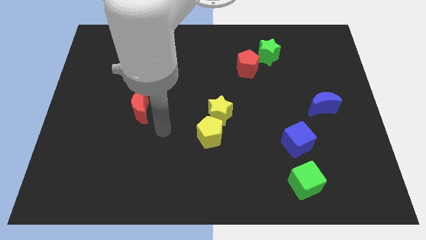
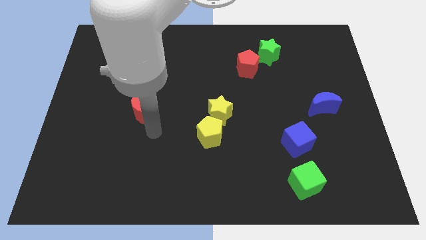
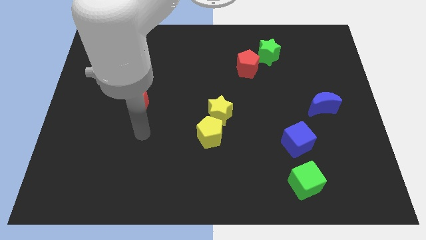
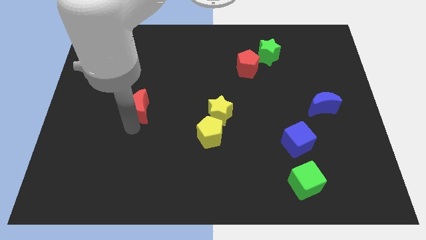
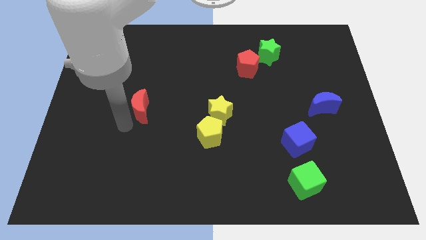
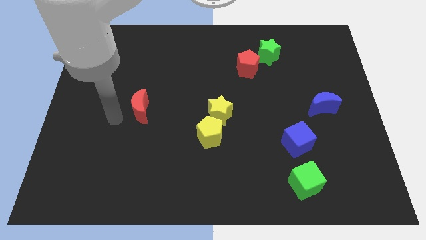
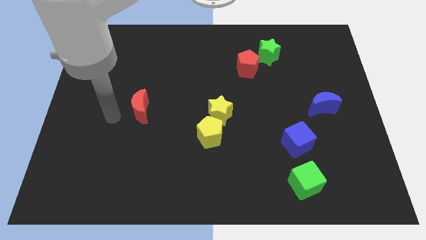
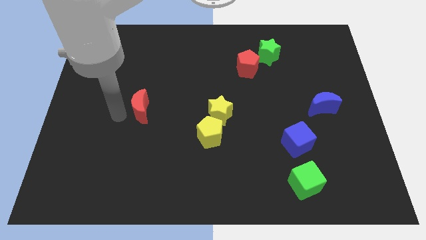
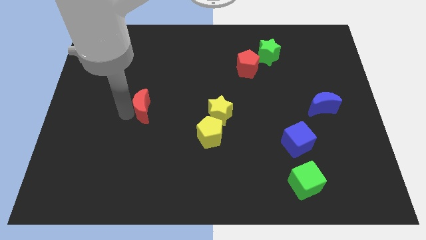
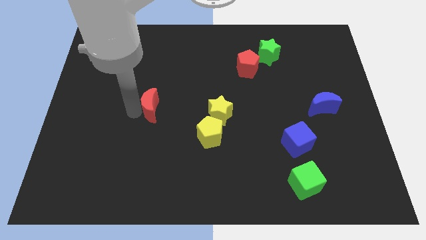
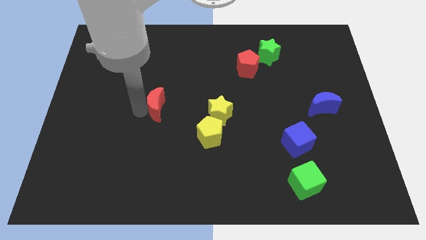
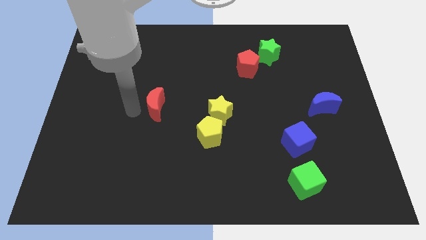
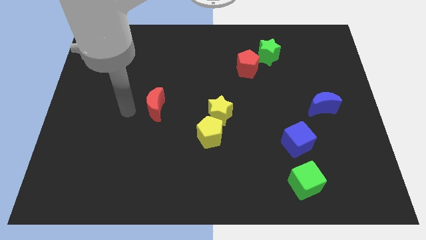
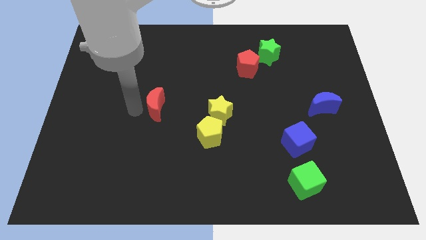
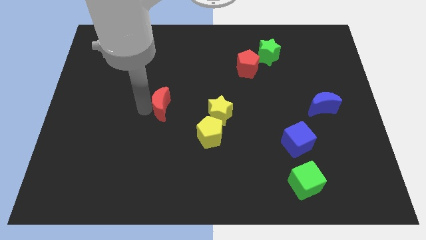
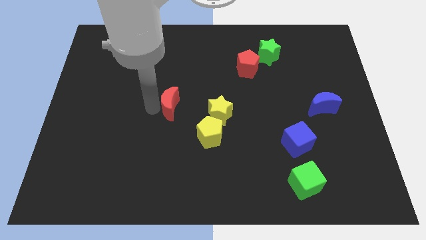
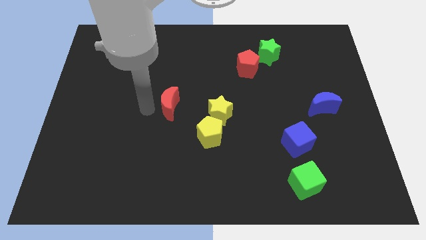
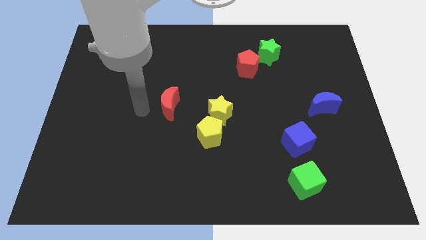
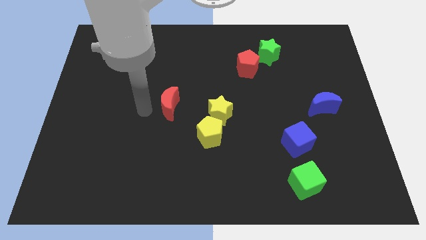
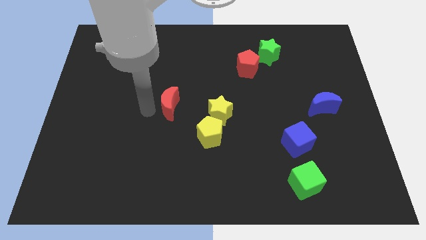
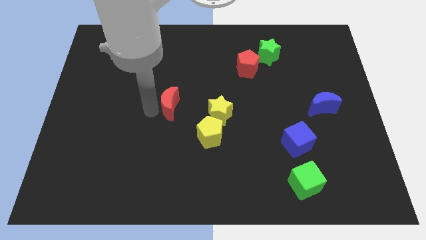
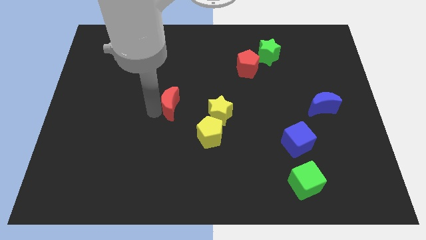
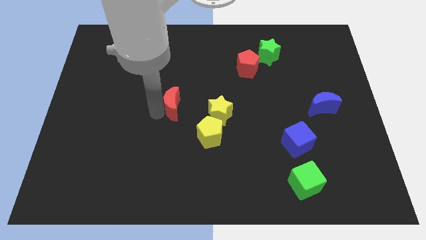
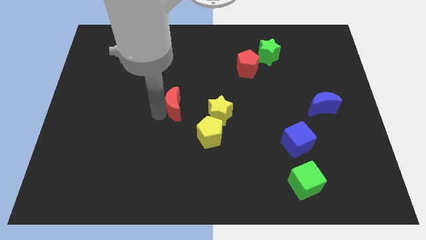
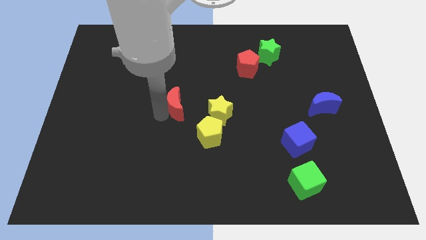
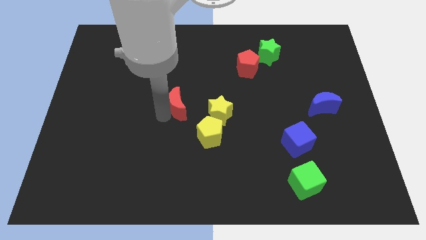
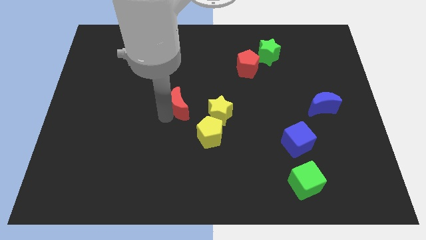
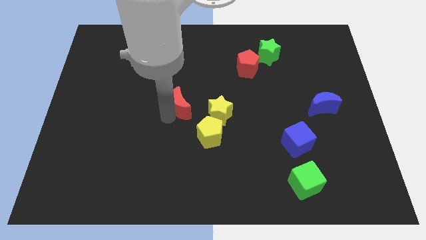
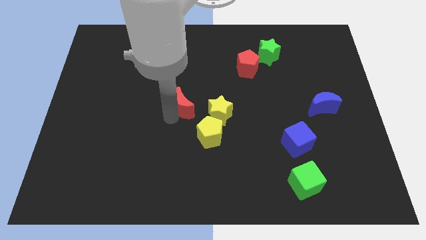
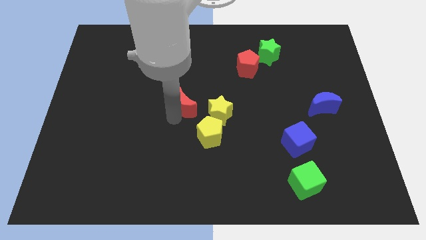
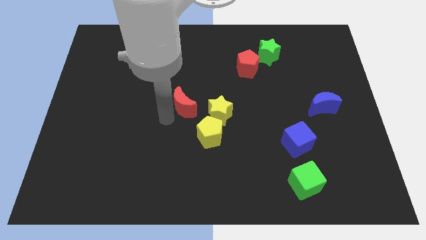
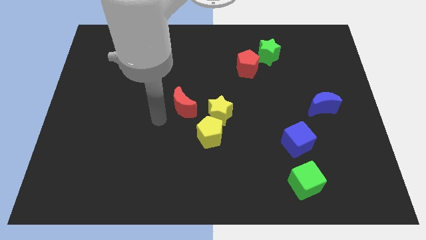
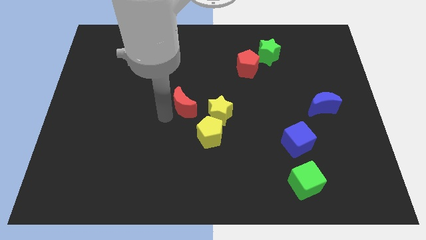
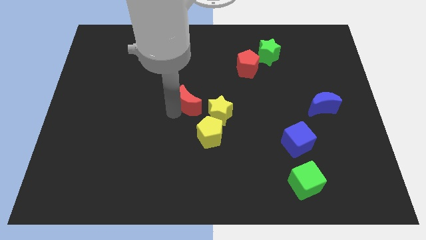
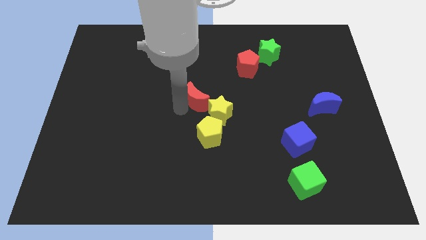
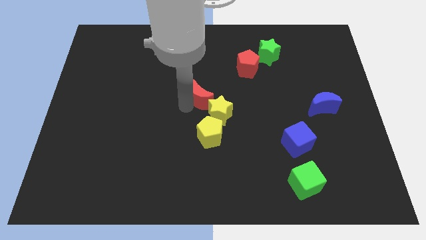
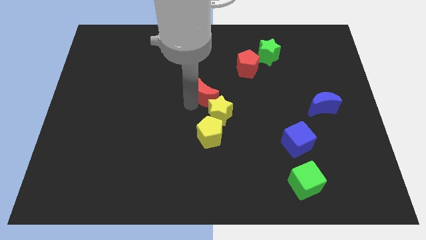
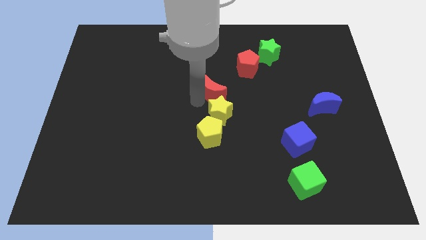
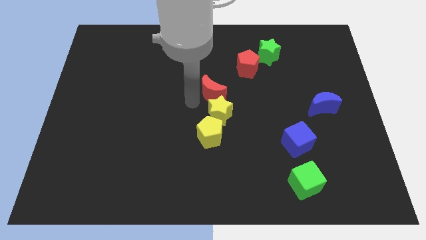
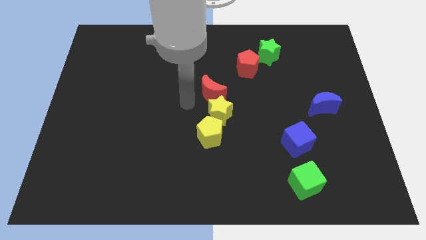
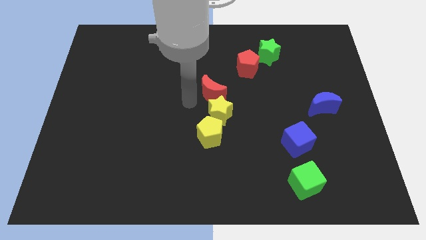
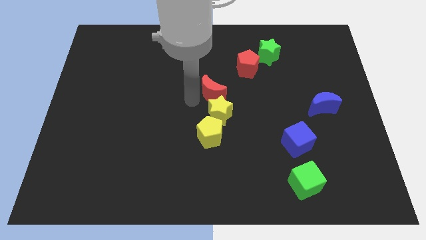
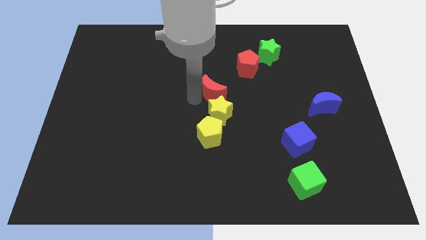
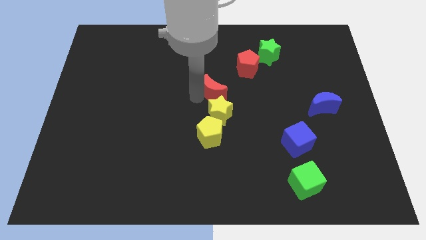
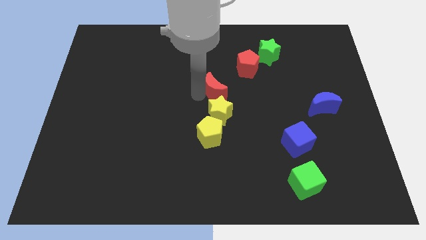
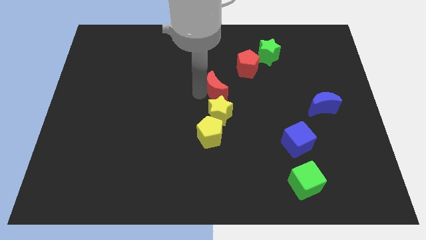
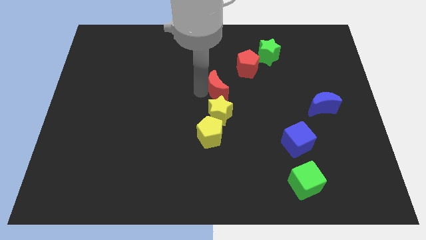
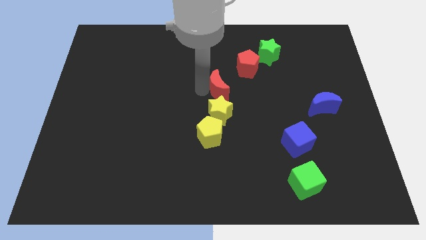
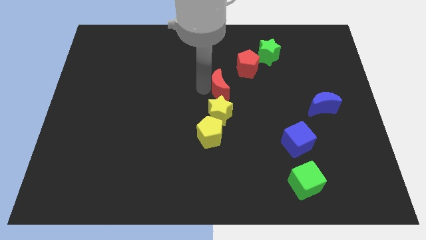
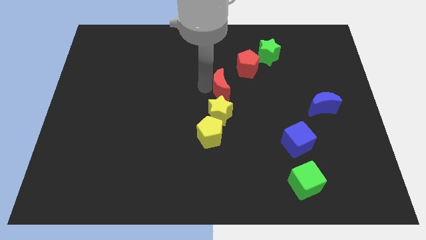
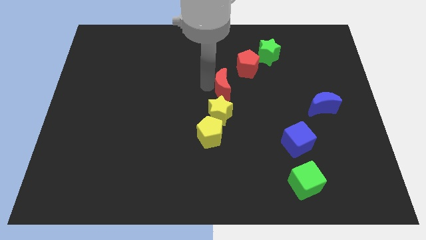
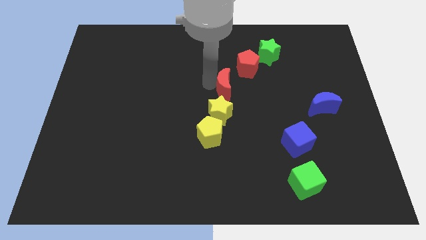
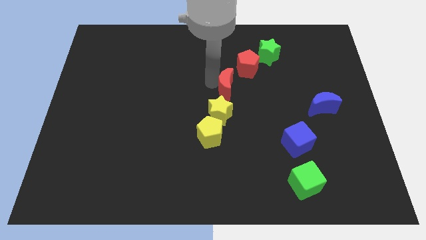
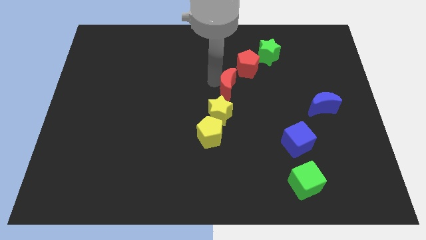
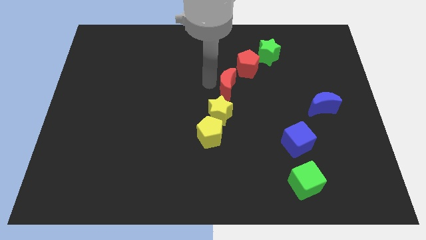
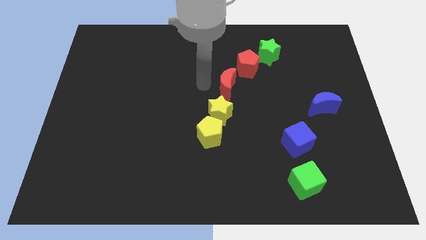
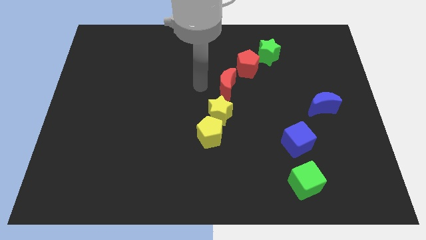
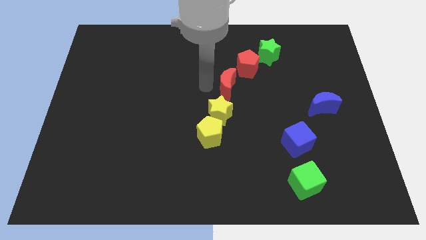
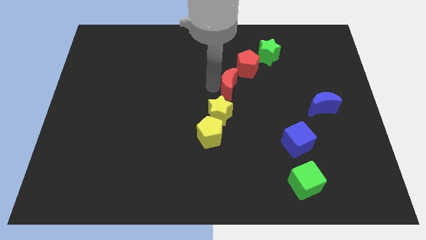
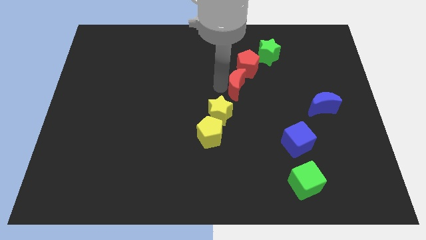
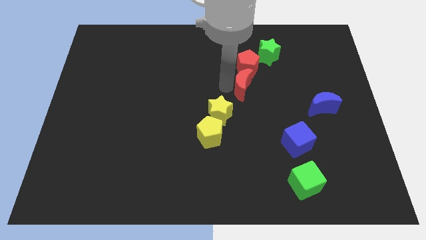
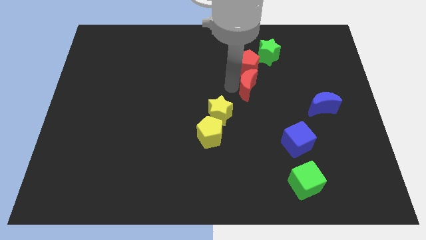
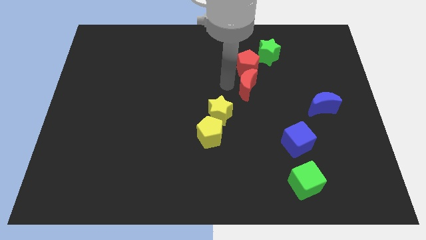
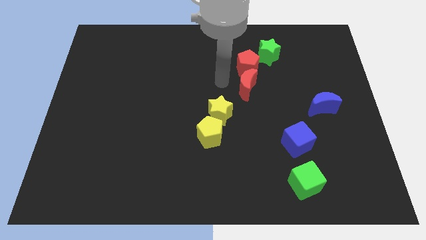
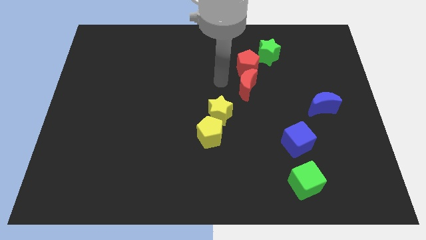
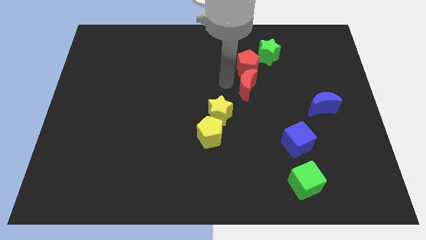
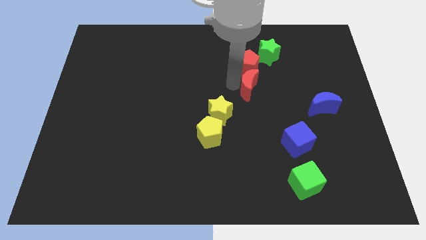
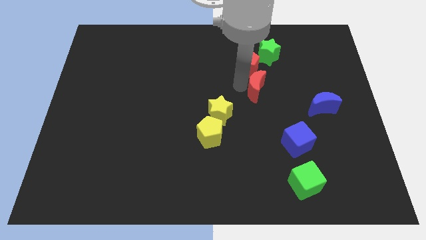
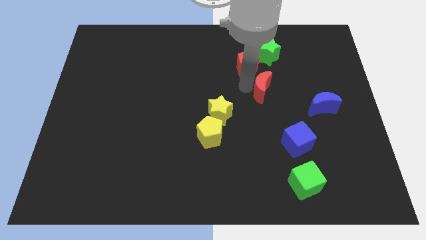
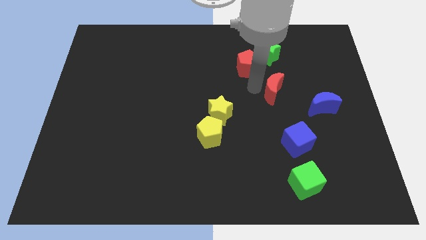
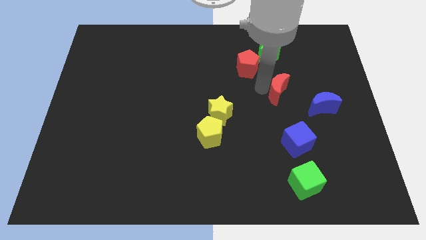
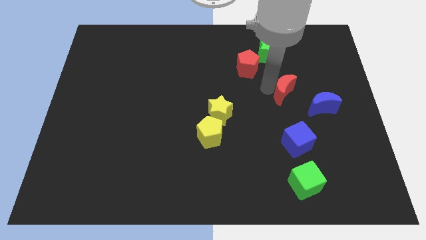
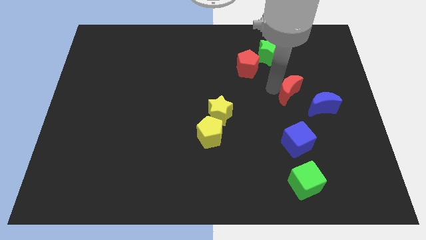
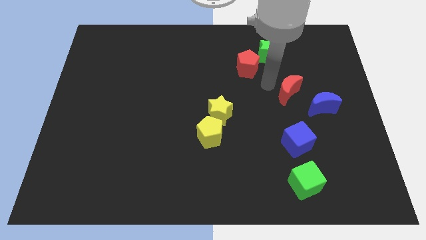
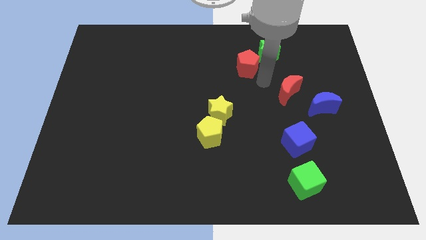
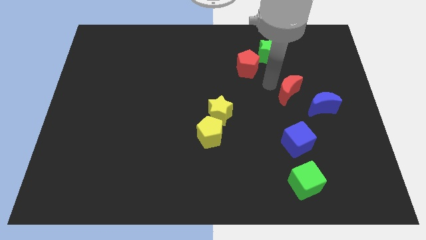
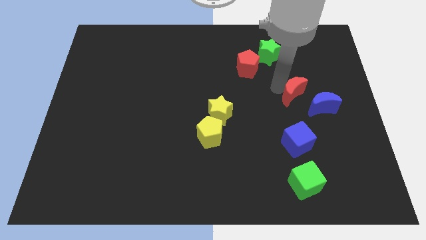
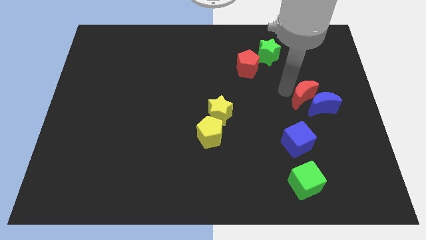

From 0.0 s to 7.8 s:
move the red moon to the blue moon
